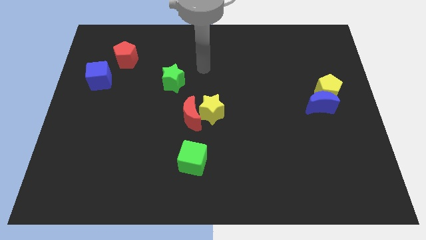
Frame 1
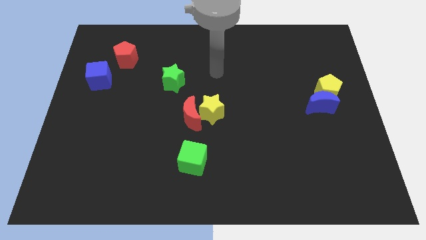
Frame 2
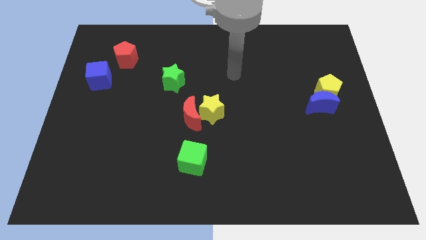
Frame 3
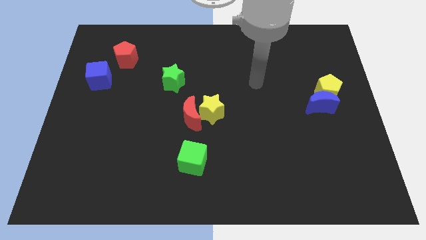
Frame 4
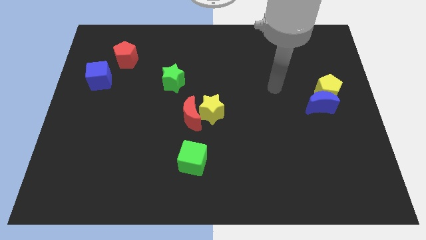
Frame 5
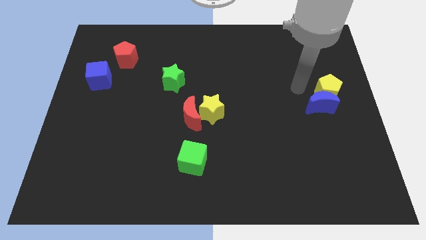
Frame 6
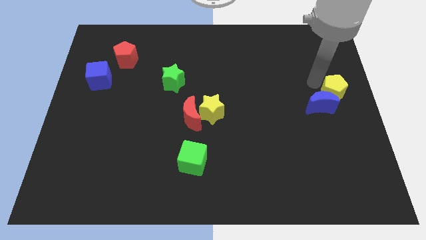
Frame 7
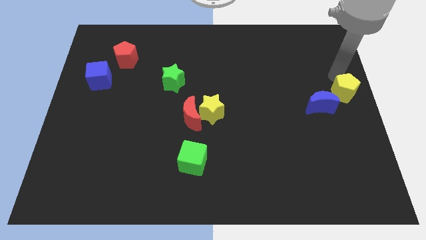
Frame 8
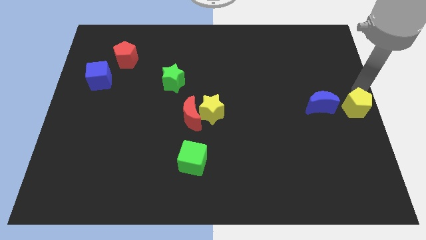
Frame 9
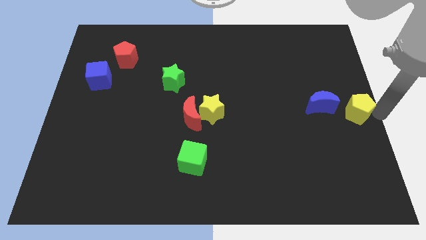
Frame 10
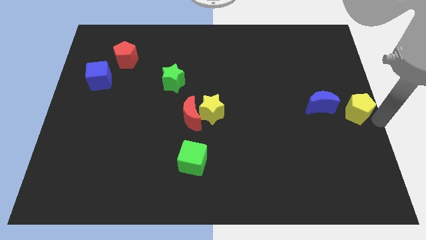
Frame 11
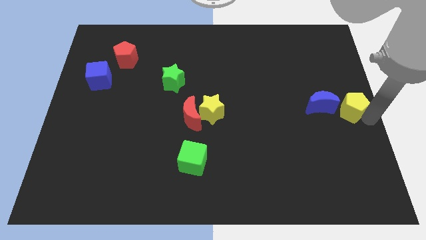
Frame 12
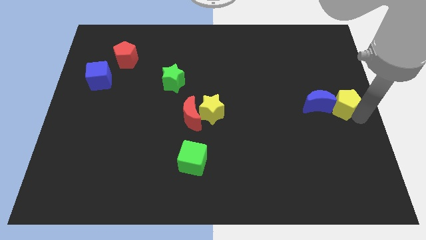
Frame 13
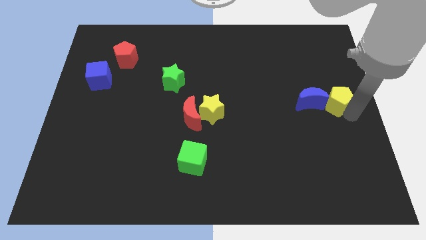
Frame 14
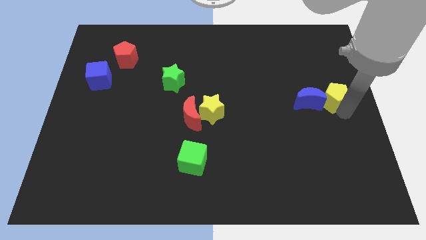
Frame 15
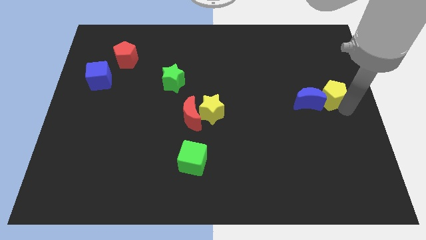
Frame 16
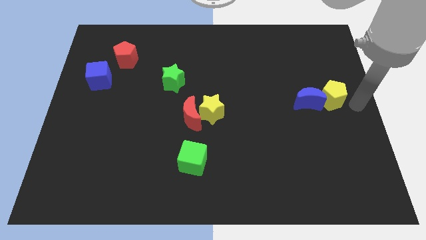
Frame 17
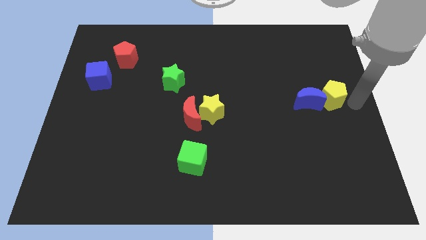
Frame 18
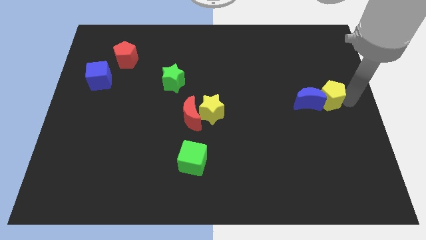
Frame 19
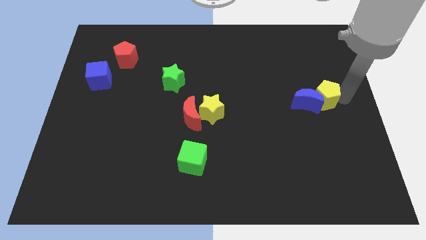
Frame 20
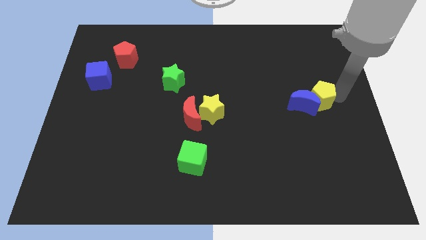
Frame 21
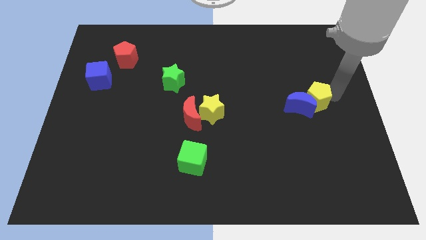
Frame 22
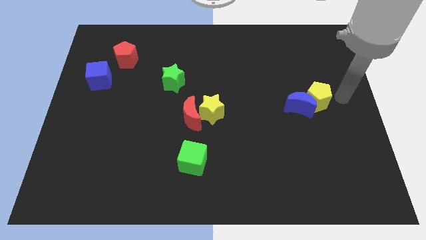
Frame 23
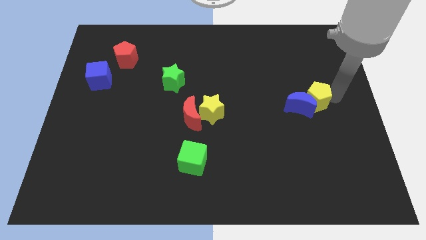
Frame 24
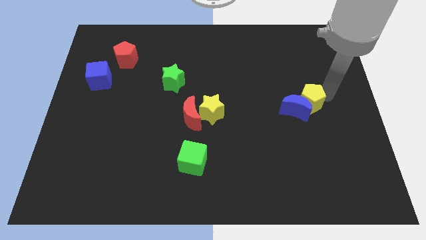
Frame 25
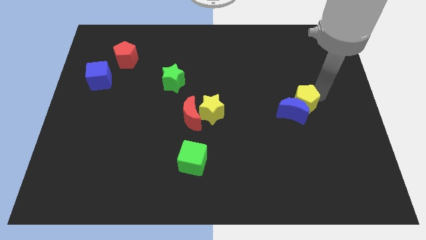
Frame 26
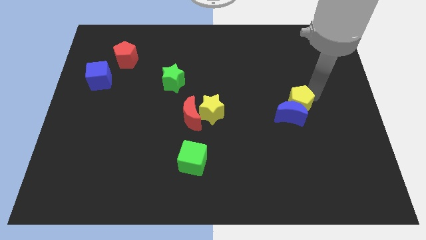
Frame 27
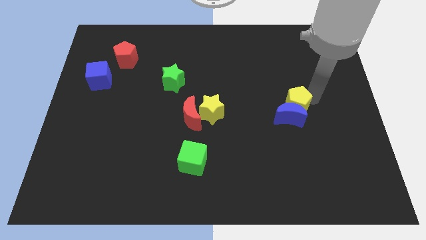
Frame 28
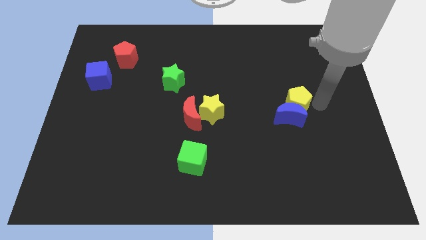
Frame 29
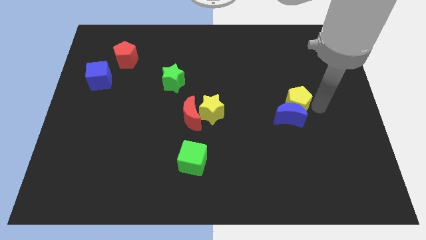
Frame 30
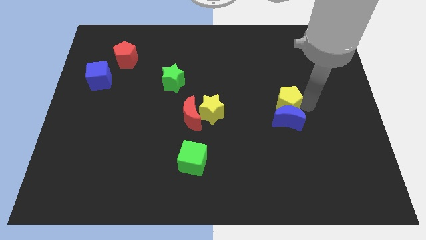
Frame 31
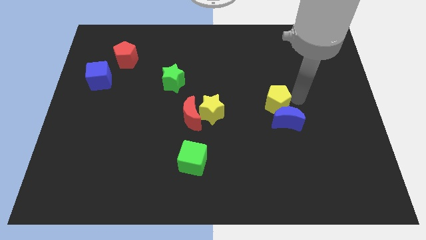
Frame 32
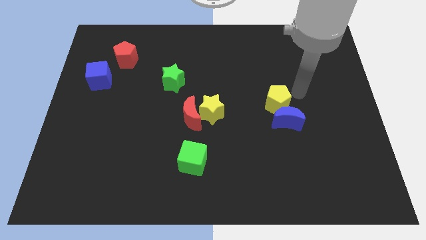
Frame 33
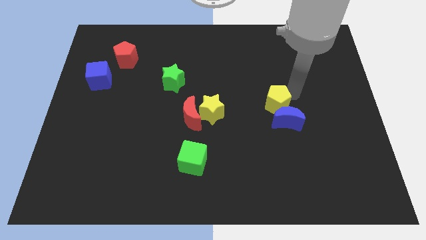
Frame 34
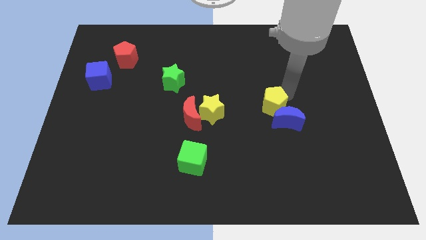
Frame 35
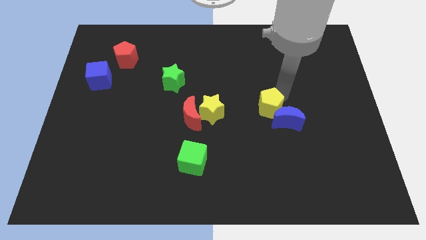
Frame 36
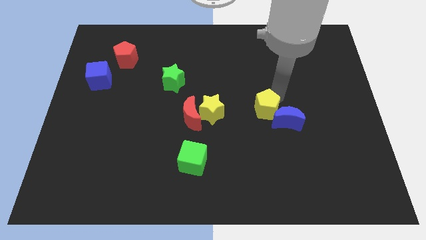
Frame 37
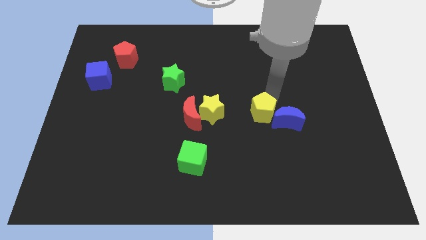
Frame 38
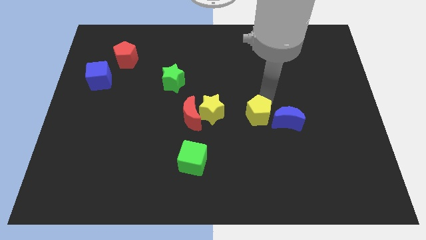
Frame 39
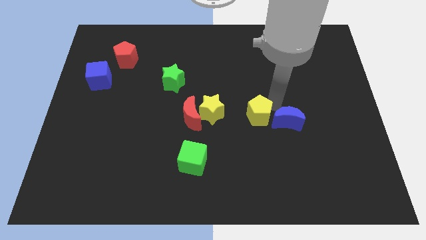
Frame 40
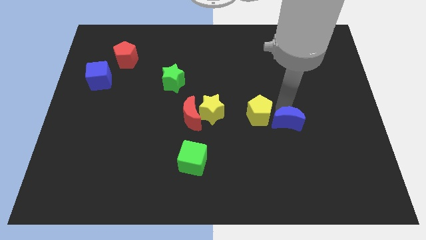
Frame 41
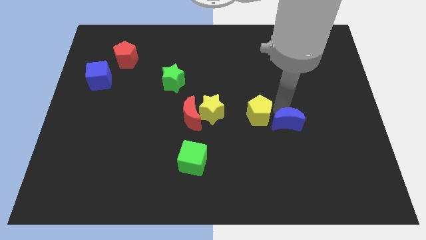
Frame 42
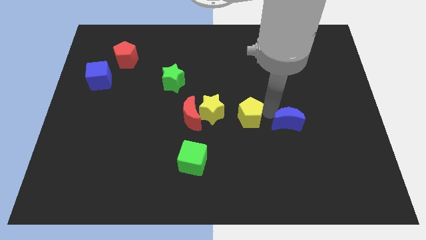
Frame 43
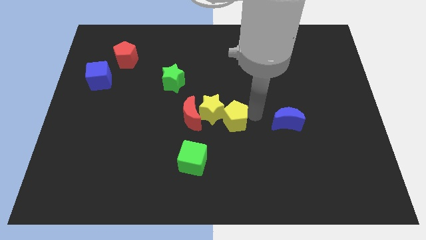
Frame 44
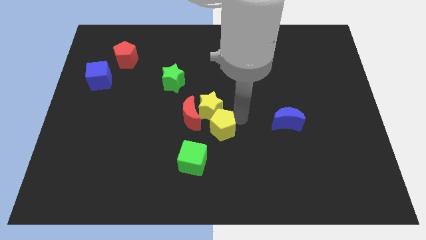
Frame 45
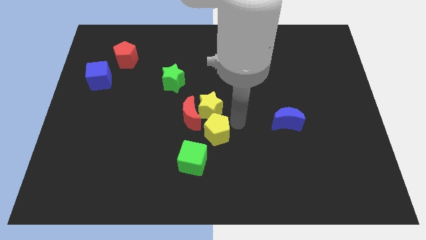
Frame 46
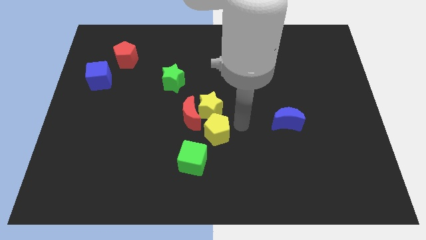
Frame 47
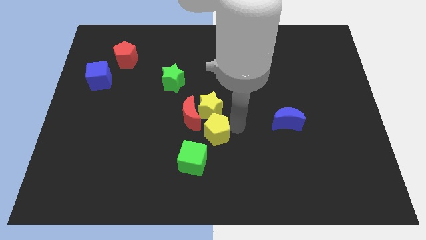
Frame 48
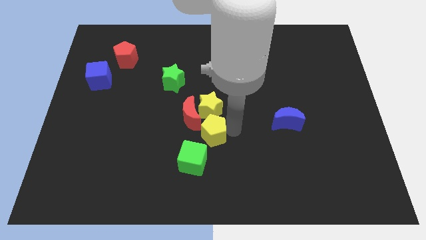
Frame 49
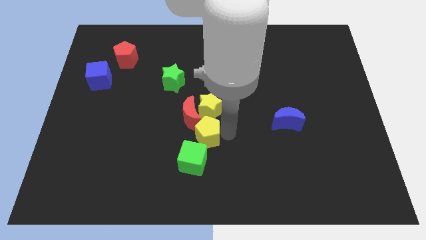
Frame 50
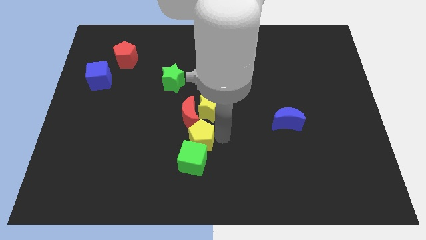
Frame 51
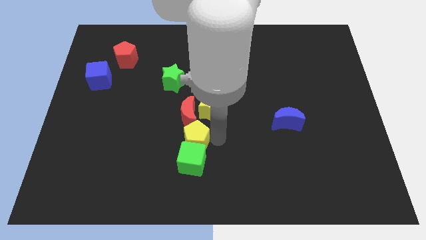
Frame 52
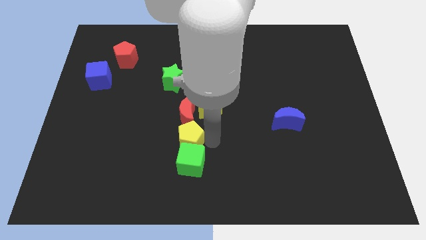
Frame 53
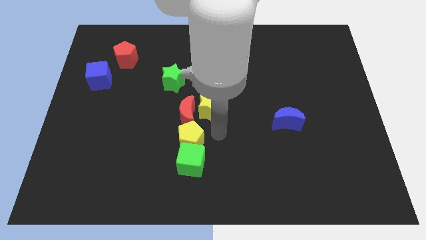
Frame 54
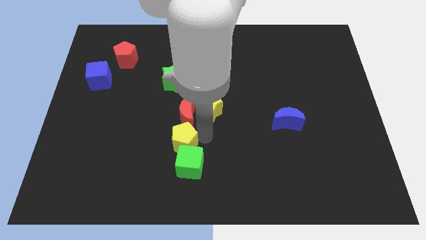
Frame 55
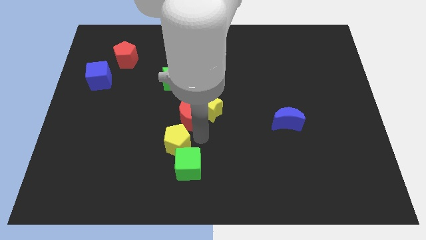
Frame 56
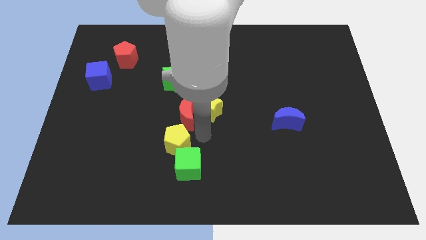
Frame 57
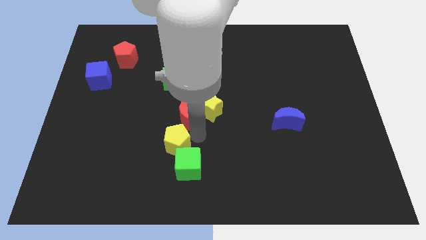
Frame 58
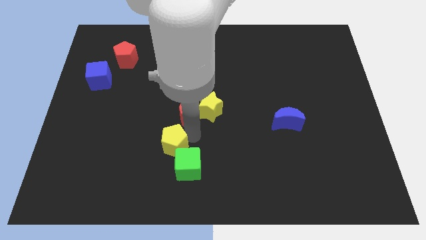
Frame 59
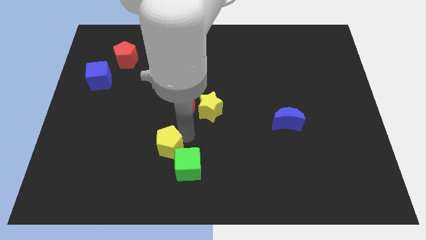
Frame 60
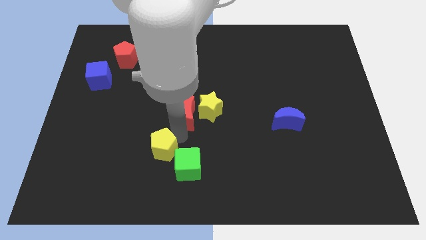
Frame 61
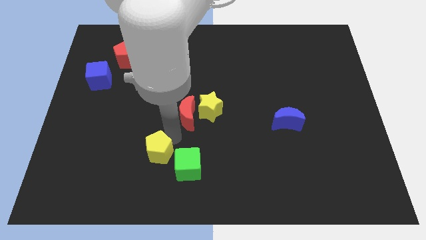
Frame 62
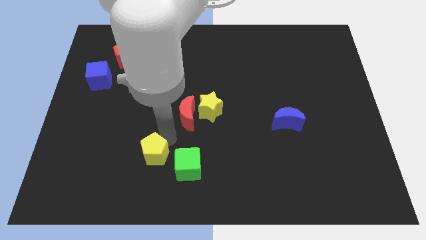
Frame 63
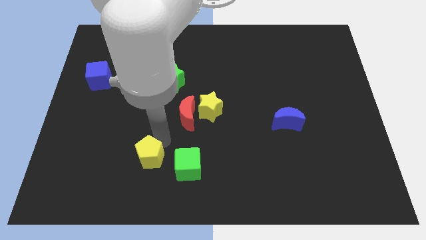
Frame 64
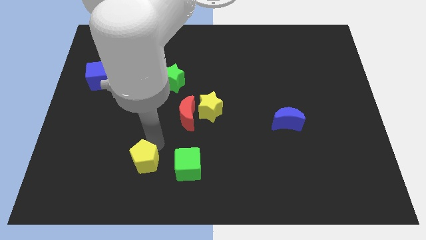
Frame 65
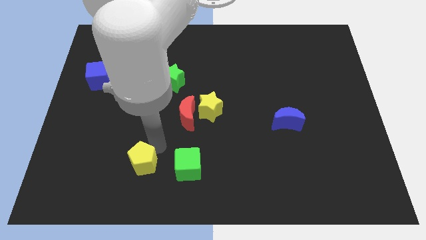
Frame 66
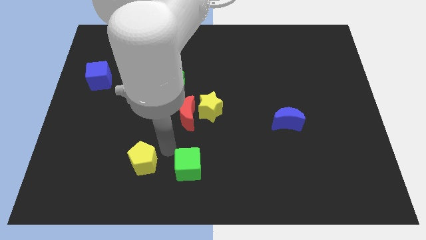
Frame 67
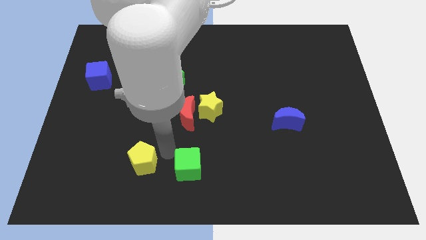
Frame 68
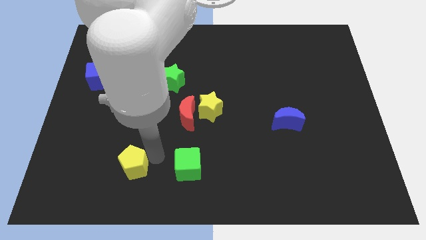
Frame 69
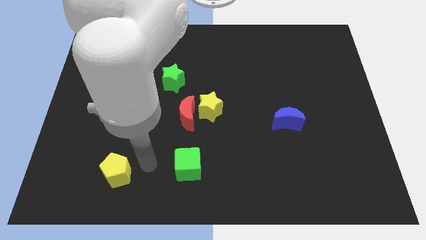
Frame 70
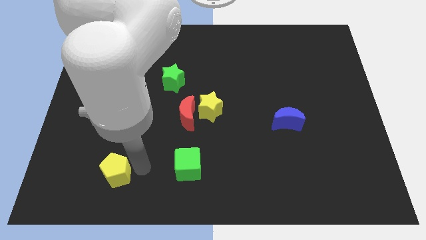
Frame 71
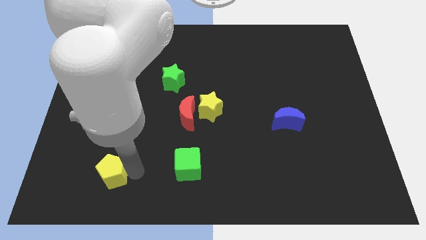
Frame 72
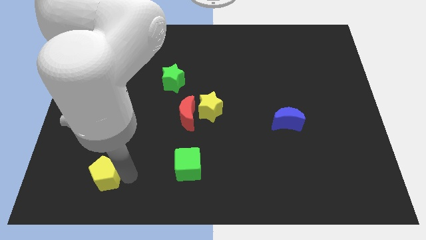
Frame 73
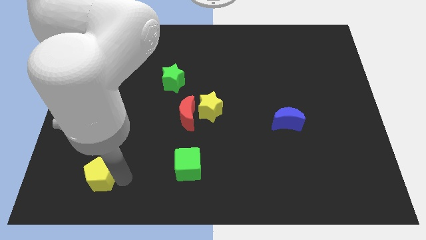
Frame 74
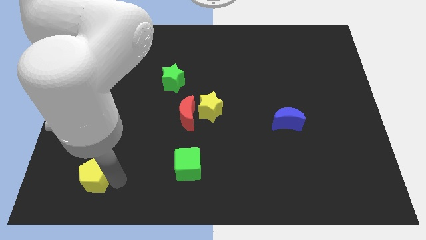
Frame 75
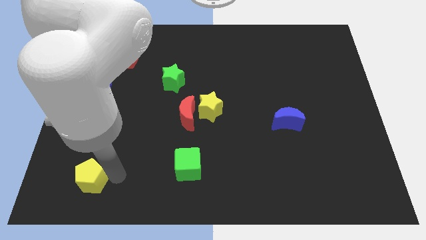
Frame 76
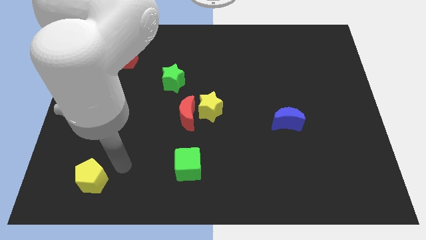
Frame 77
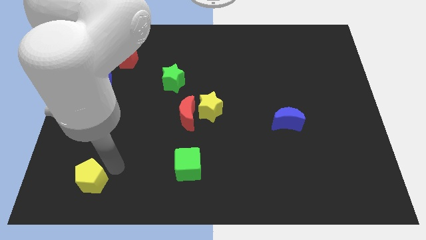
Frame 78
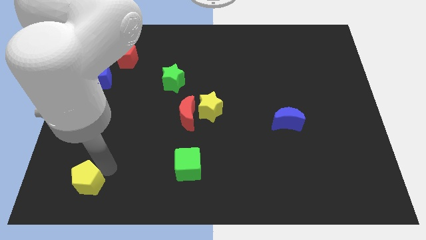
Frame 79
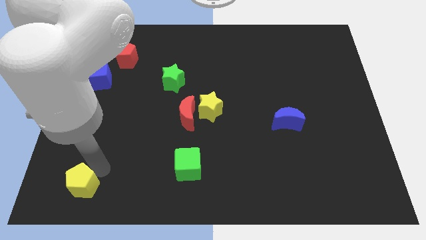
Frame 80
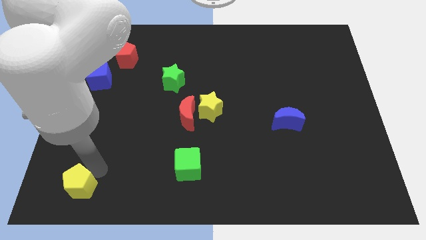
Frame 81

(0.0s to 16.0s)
slide the yellow pentagon to the bottom left of the board
